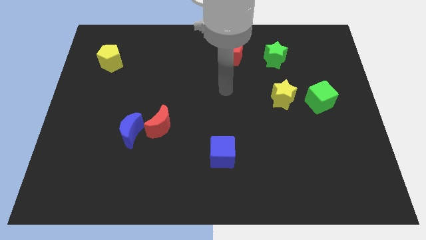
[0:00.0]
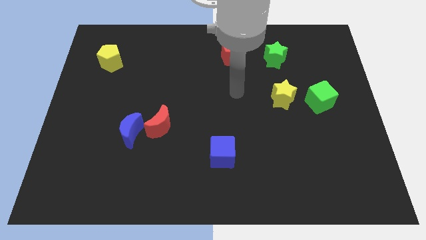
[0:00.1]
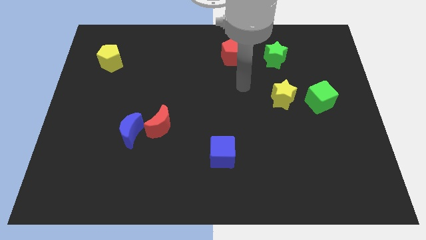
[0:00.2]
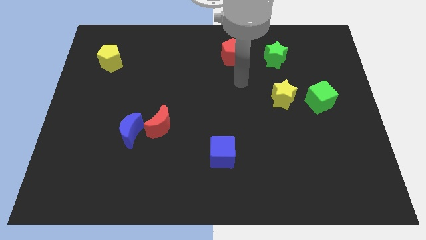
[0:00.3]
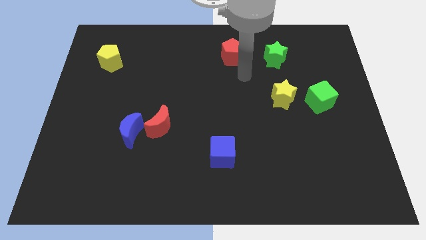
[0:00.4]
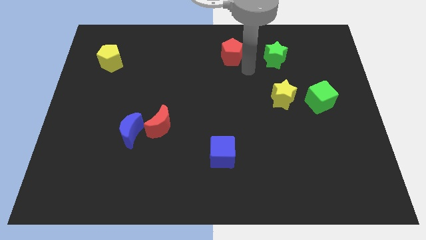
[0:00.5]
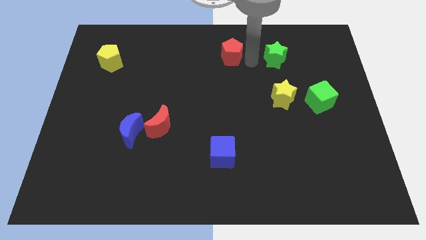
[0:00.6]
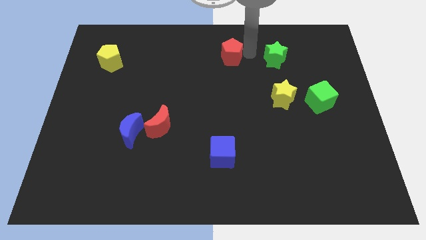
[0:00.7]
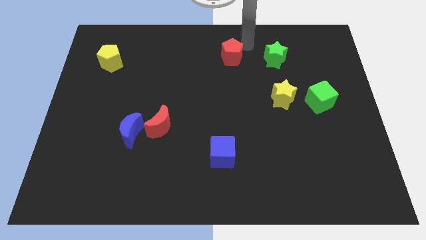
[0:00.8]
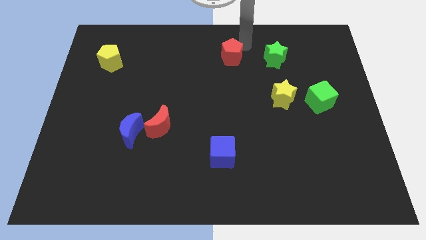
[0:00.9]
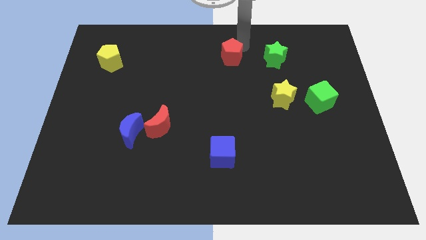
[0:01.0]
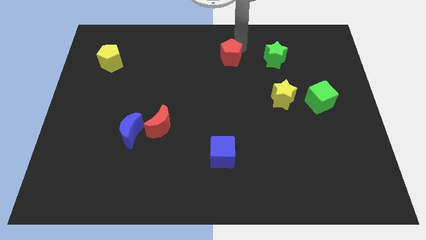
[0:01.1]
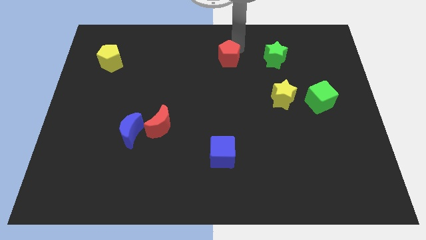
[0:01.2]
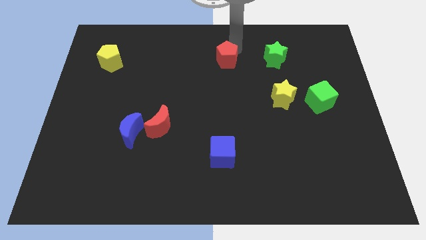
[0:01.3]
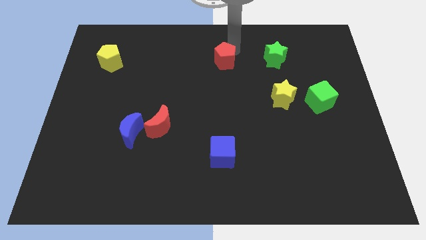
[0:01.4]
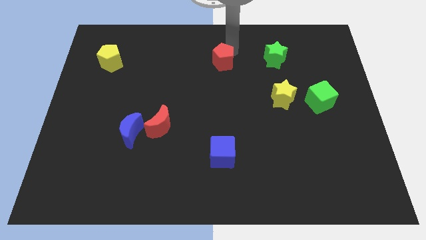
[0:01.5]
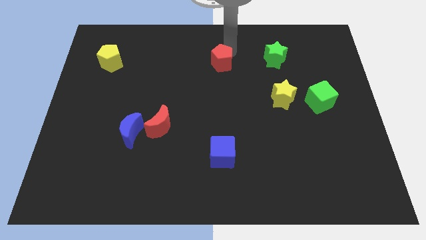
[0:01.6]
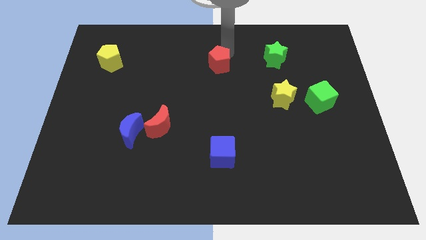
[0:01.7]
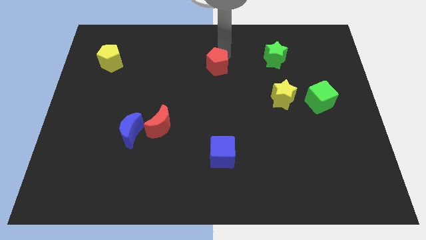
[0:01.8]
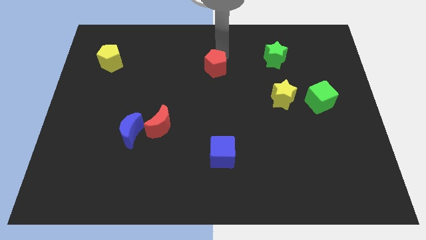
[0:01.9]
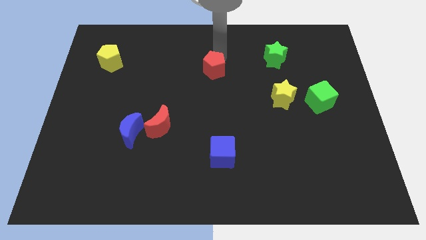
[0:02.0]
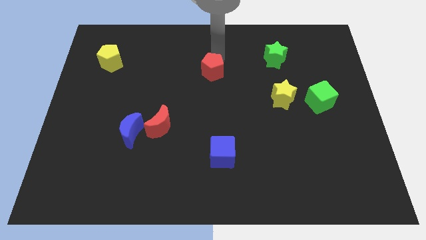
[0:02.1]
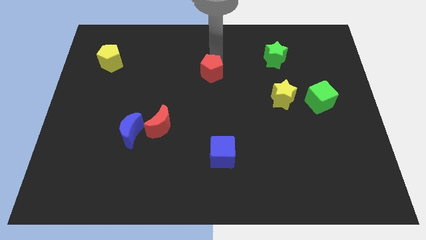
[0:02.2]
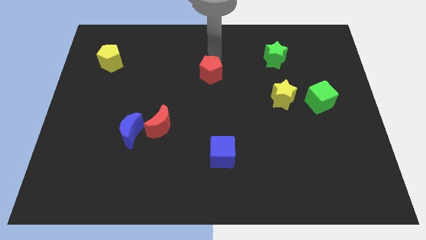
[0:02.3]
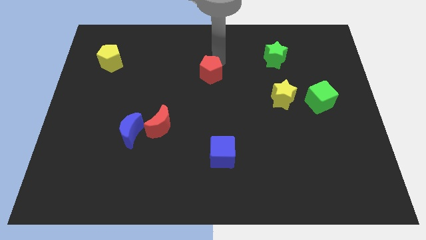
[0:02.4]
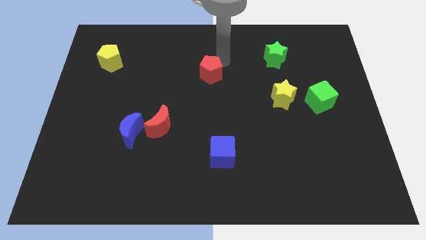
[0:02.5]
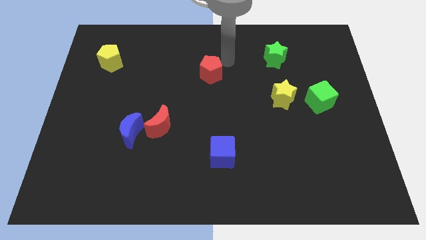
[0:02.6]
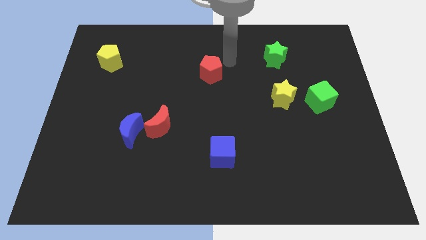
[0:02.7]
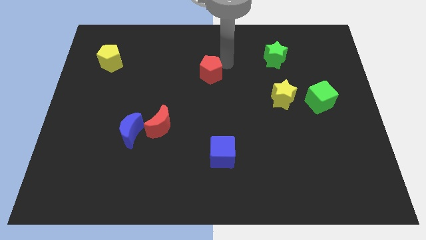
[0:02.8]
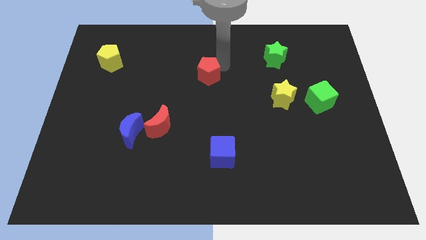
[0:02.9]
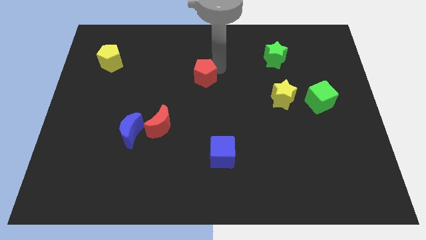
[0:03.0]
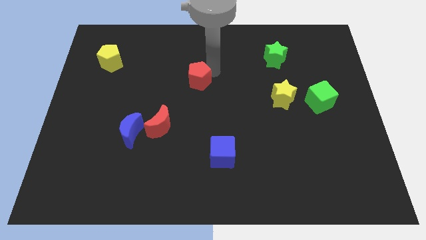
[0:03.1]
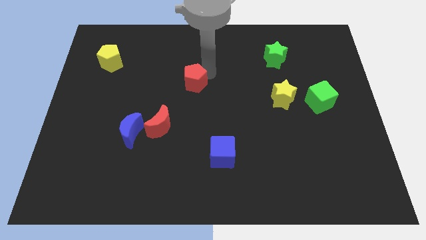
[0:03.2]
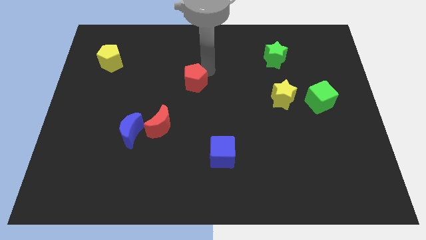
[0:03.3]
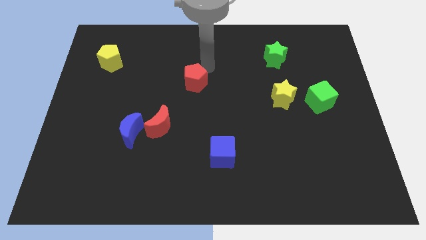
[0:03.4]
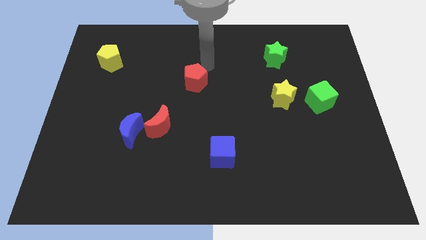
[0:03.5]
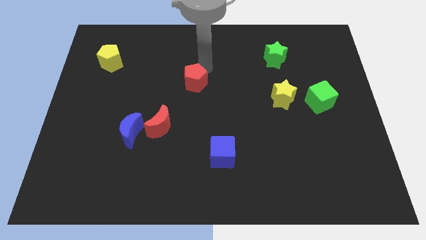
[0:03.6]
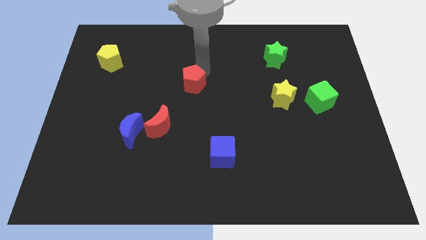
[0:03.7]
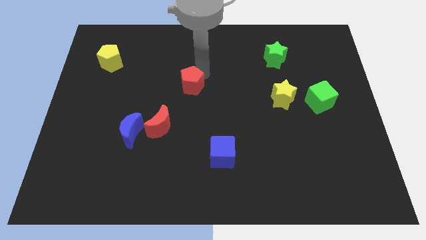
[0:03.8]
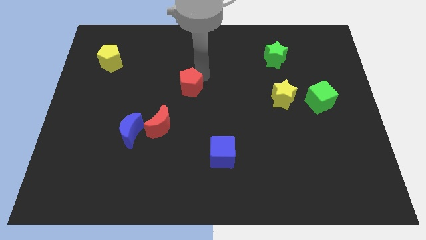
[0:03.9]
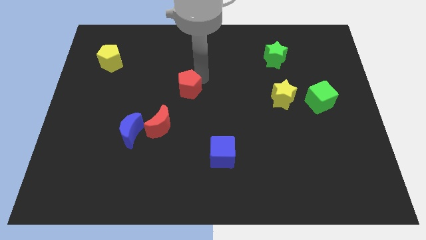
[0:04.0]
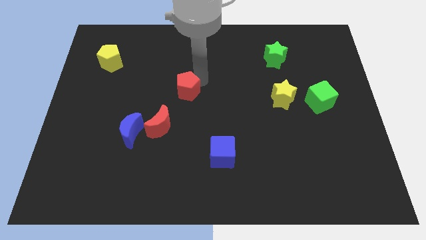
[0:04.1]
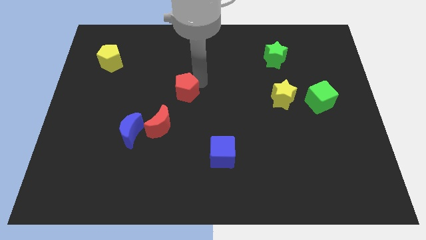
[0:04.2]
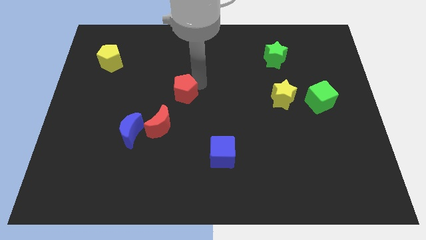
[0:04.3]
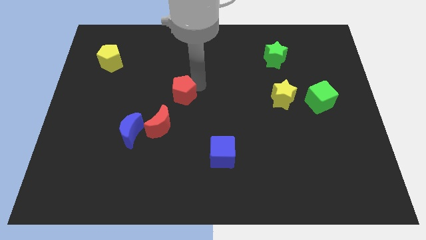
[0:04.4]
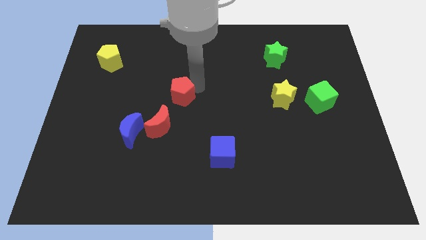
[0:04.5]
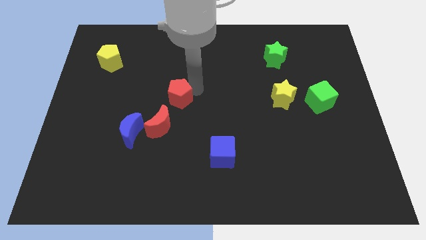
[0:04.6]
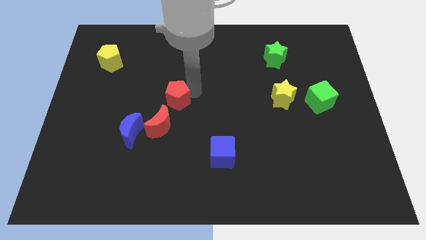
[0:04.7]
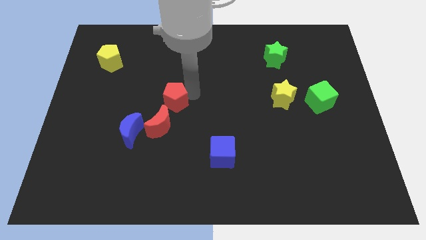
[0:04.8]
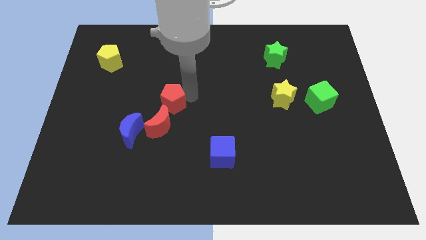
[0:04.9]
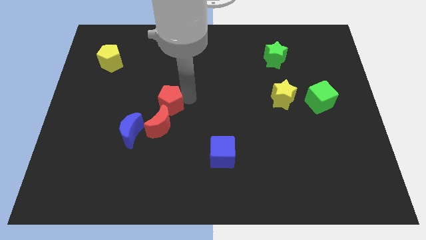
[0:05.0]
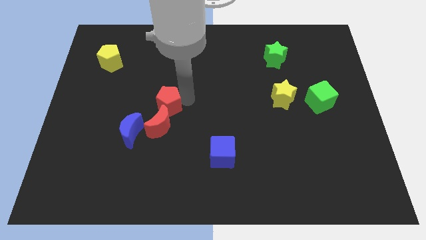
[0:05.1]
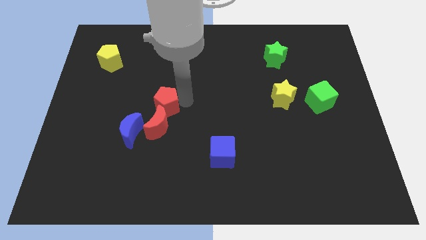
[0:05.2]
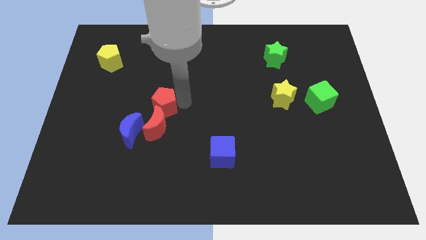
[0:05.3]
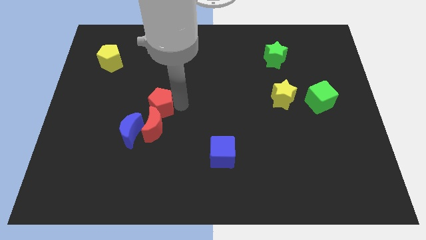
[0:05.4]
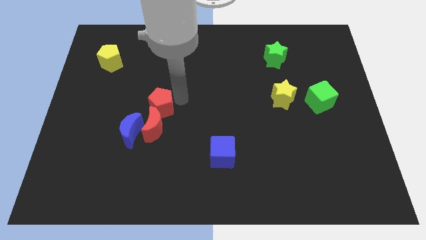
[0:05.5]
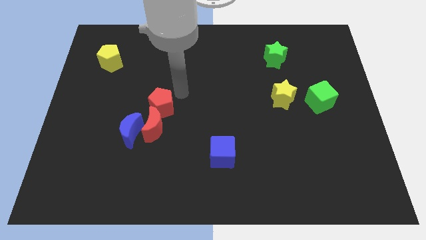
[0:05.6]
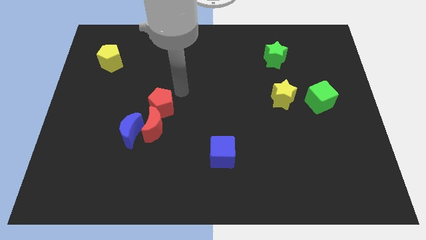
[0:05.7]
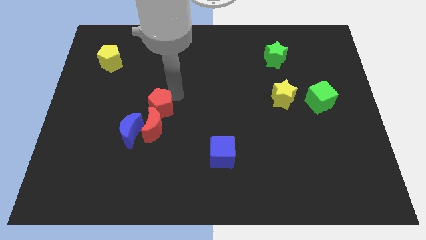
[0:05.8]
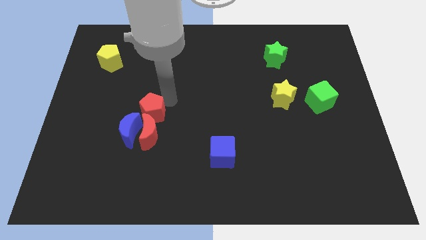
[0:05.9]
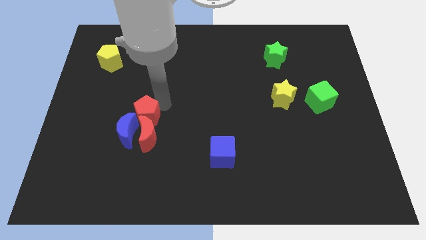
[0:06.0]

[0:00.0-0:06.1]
put the red pentagon close to the blue moon

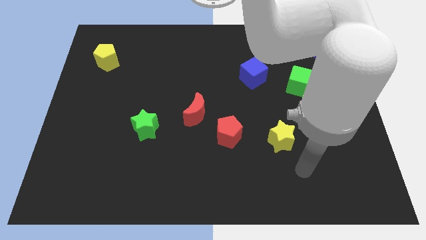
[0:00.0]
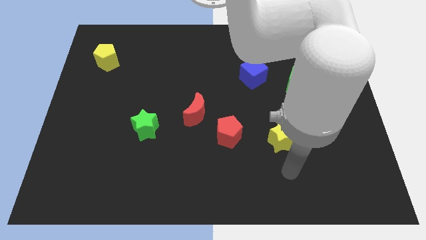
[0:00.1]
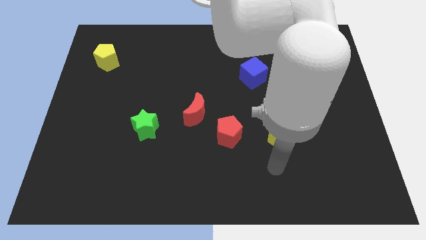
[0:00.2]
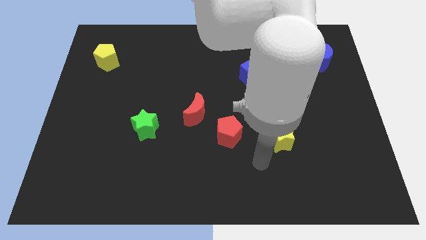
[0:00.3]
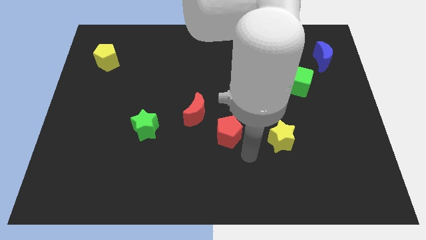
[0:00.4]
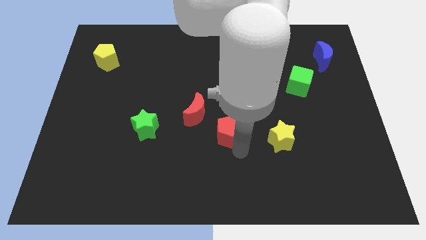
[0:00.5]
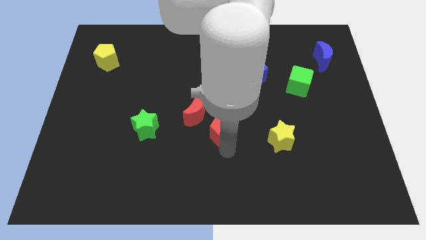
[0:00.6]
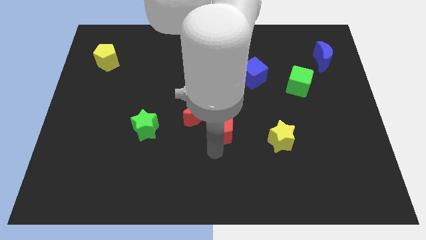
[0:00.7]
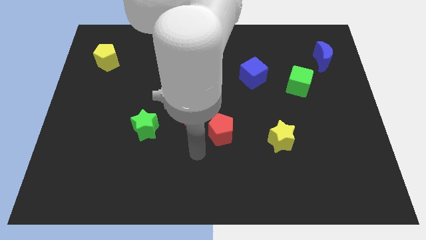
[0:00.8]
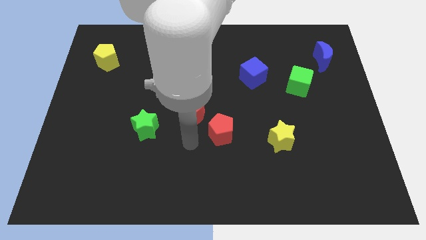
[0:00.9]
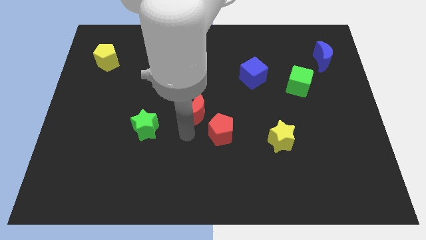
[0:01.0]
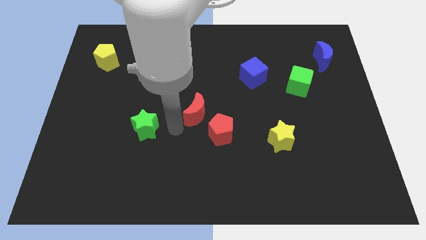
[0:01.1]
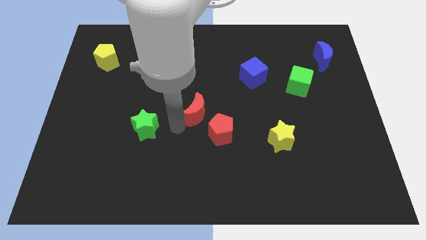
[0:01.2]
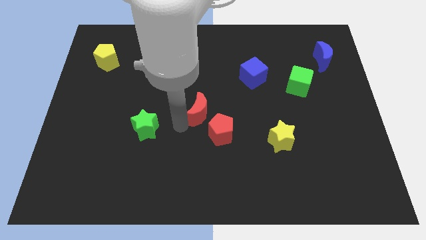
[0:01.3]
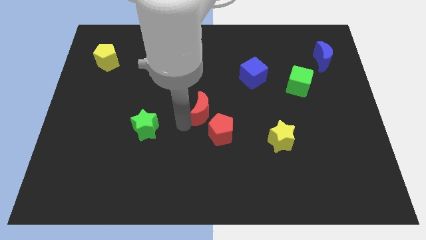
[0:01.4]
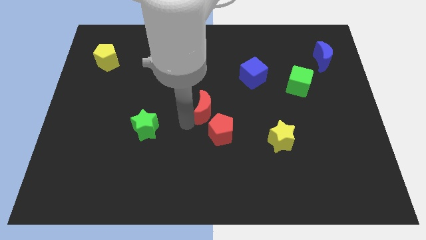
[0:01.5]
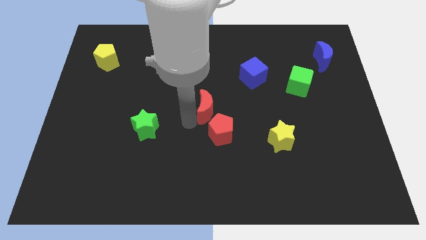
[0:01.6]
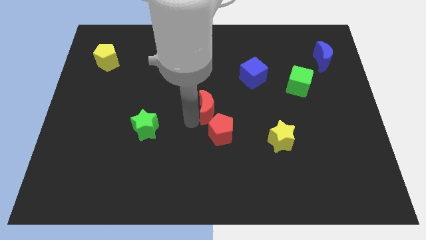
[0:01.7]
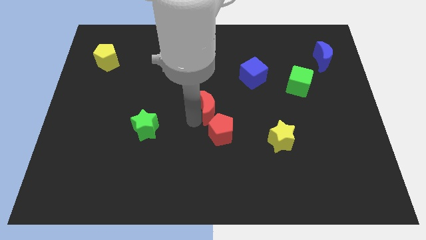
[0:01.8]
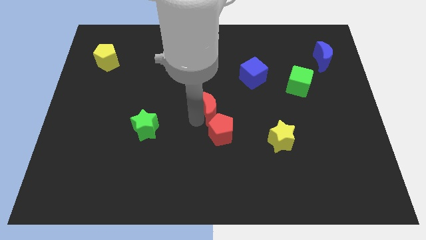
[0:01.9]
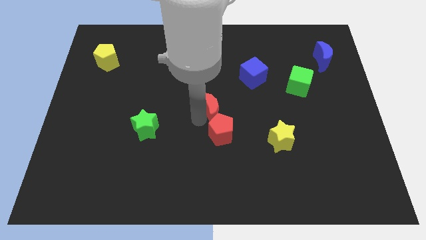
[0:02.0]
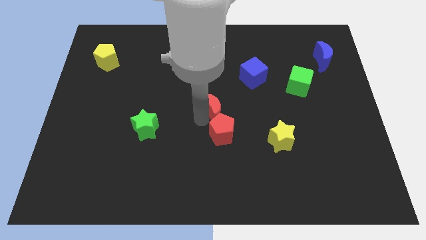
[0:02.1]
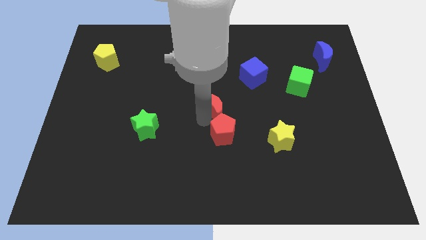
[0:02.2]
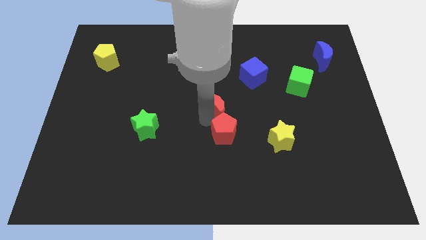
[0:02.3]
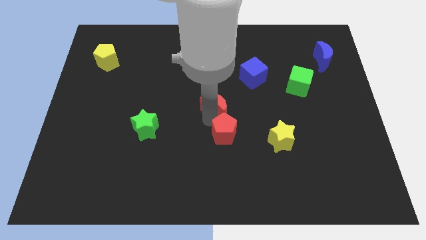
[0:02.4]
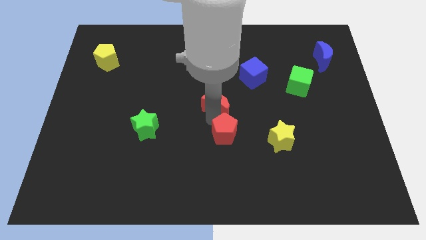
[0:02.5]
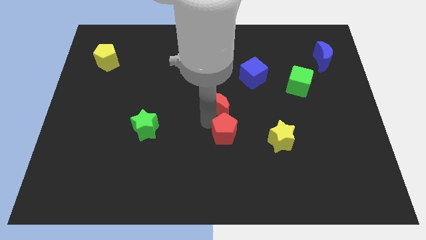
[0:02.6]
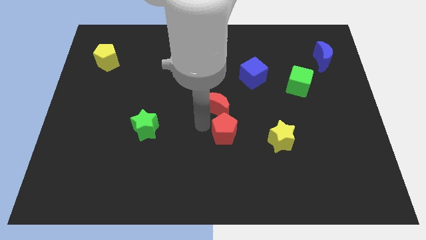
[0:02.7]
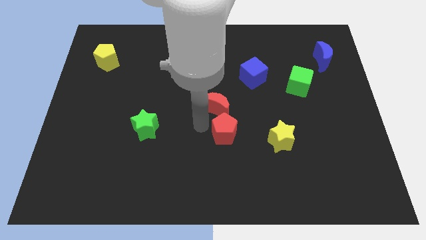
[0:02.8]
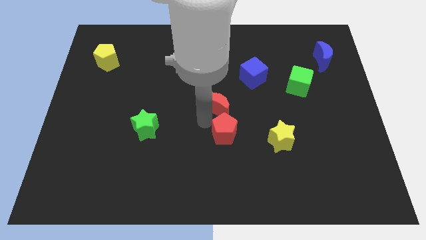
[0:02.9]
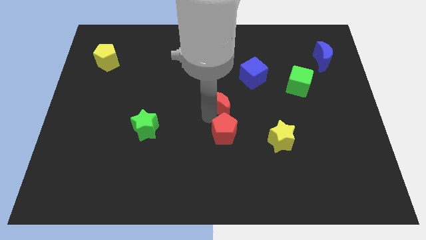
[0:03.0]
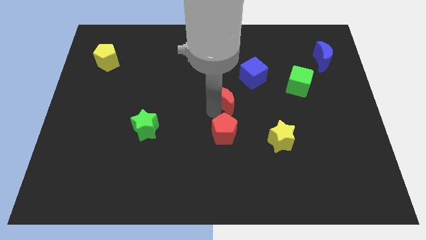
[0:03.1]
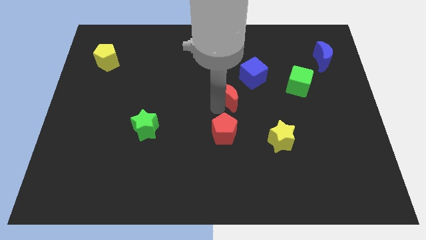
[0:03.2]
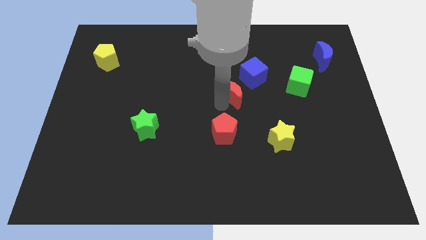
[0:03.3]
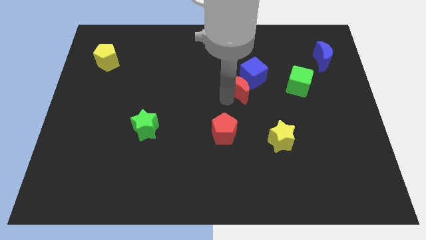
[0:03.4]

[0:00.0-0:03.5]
put the red moon next to the blue cube
